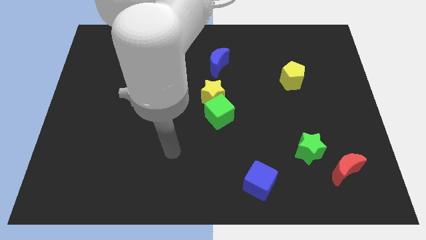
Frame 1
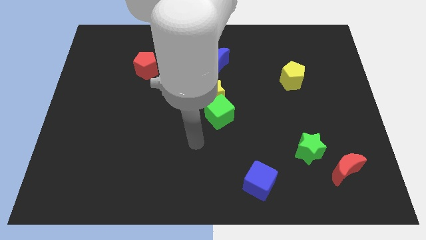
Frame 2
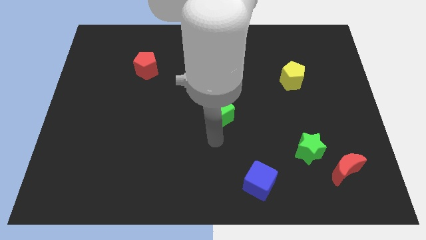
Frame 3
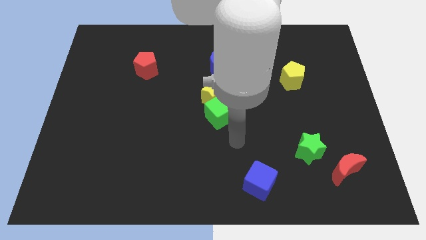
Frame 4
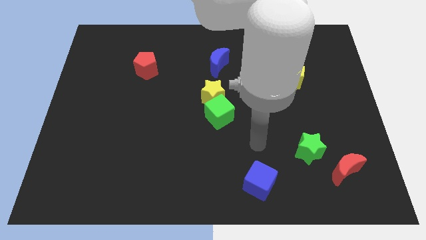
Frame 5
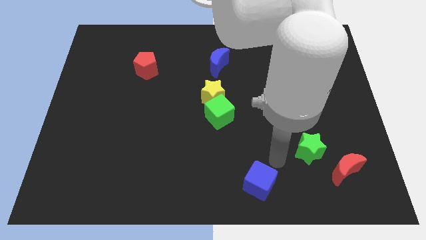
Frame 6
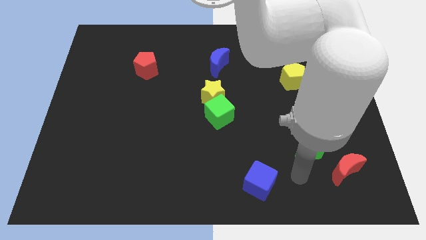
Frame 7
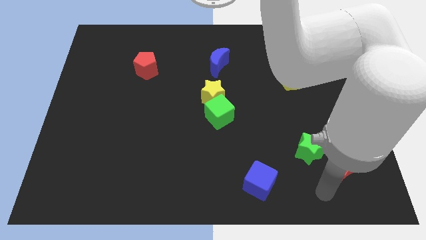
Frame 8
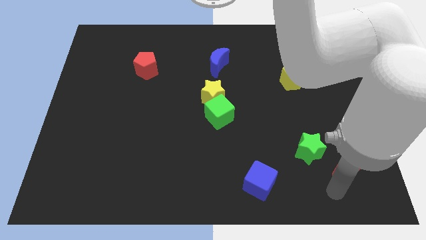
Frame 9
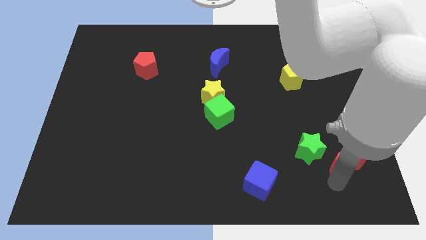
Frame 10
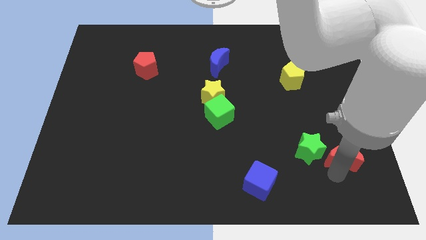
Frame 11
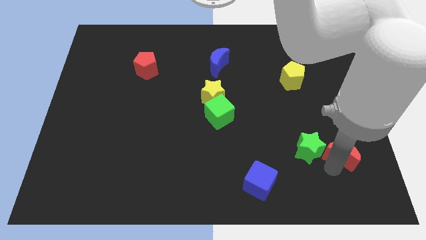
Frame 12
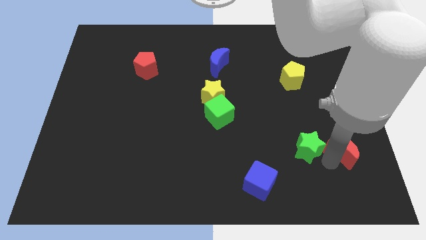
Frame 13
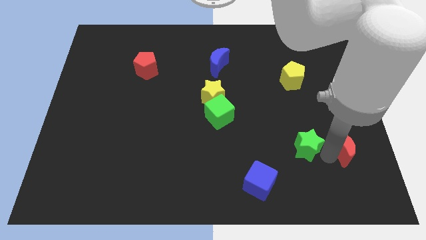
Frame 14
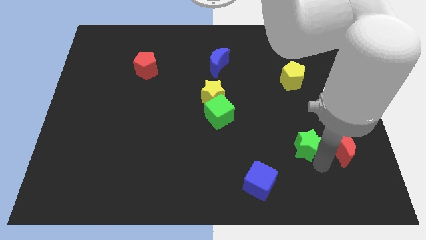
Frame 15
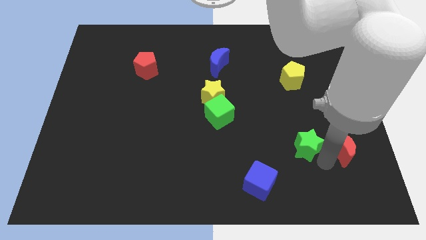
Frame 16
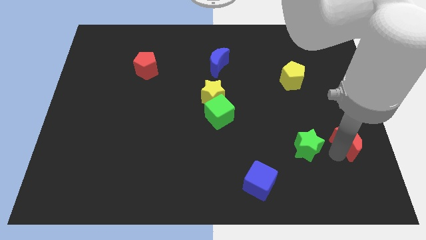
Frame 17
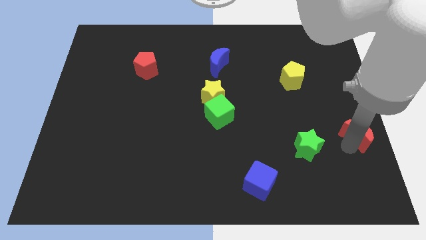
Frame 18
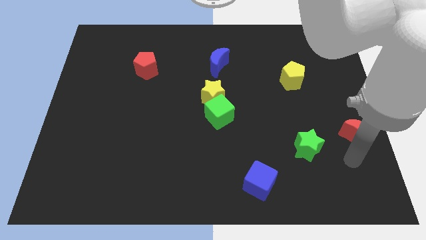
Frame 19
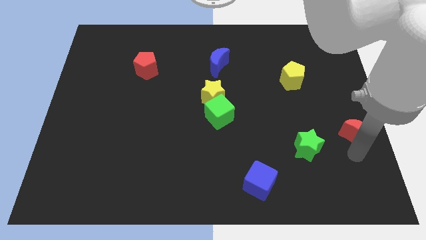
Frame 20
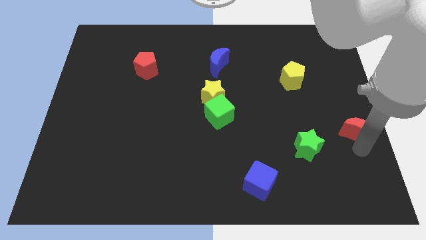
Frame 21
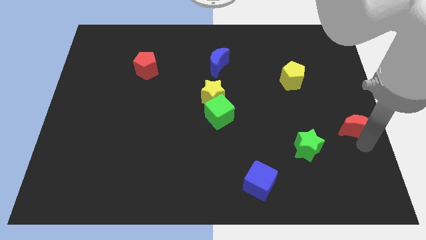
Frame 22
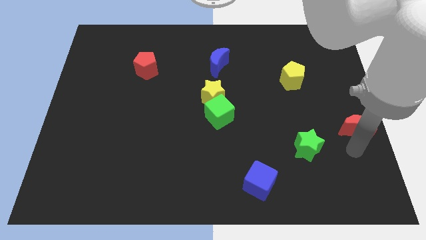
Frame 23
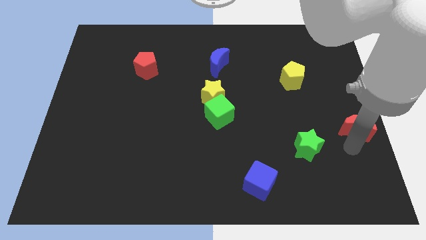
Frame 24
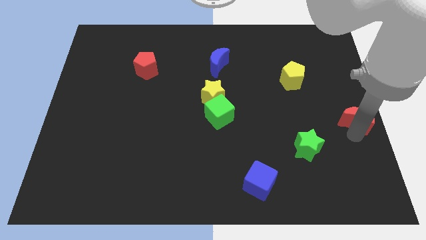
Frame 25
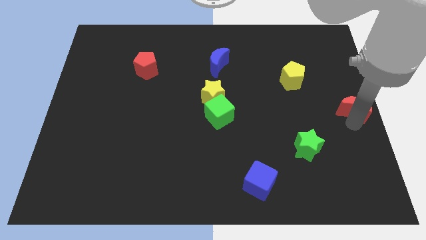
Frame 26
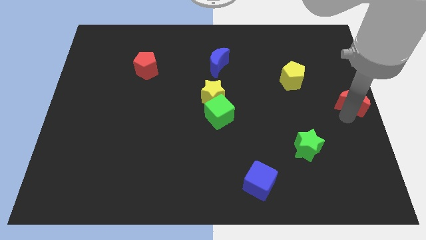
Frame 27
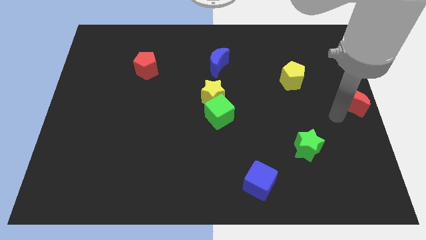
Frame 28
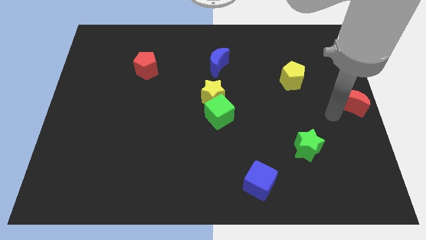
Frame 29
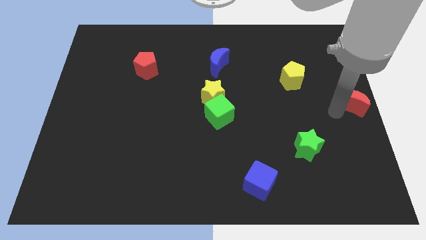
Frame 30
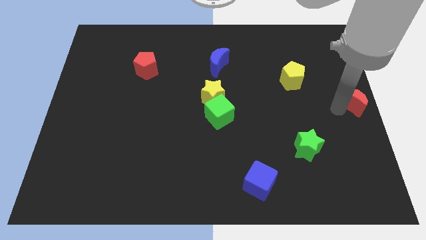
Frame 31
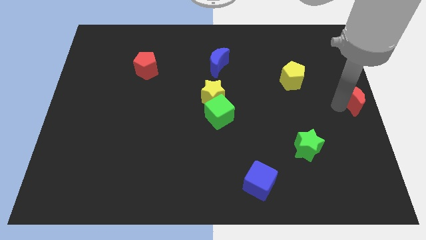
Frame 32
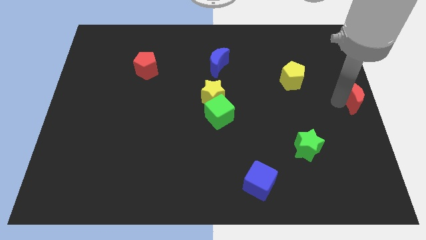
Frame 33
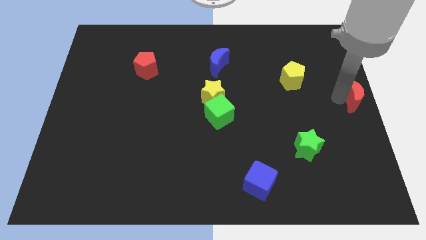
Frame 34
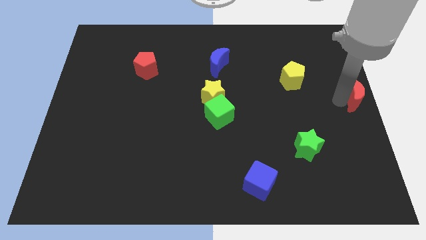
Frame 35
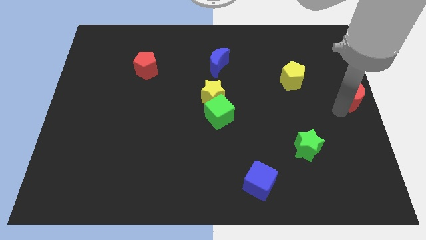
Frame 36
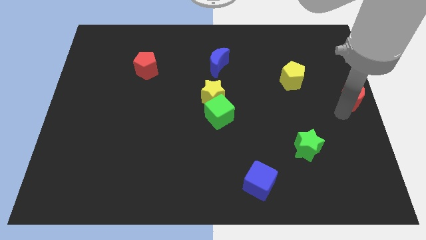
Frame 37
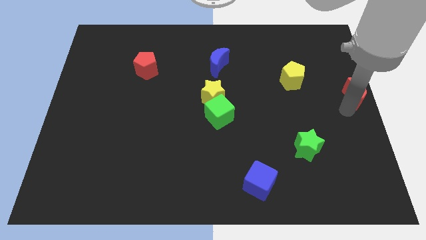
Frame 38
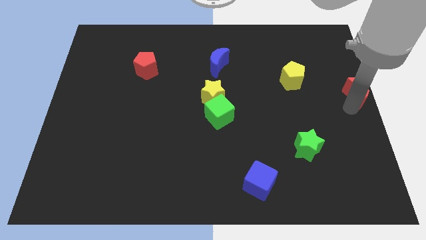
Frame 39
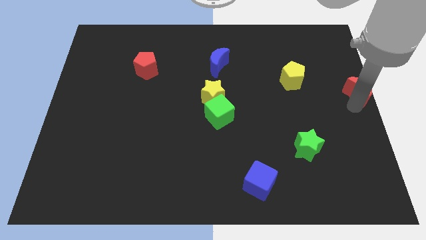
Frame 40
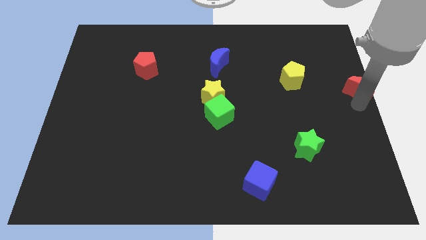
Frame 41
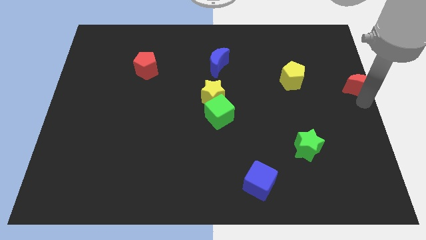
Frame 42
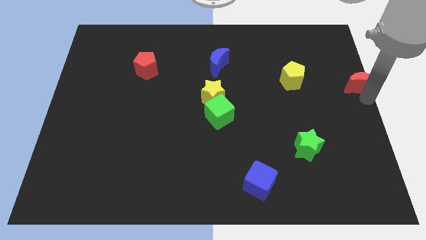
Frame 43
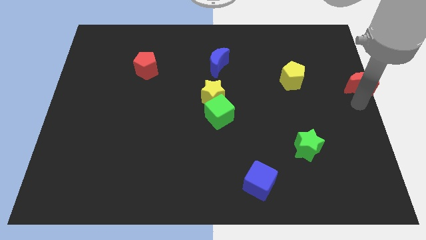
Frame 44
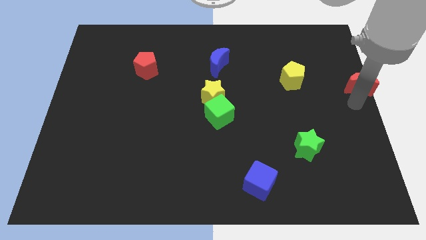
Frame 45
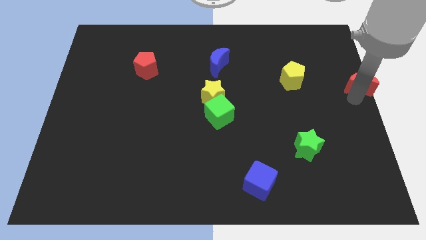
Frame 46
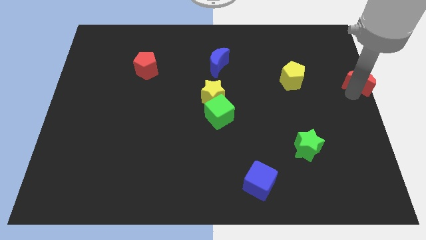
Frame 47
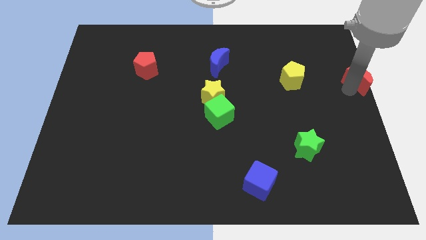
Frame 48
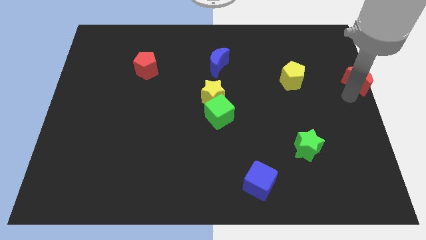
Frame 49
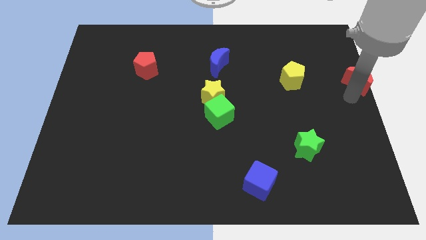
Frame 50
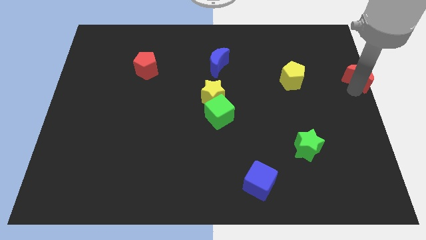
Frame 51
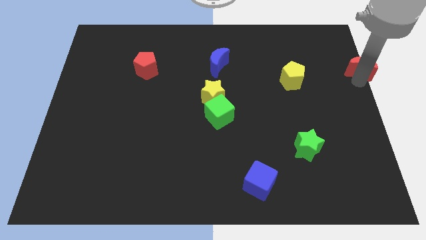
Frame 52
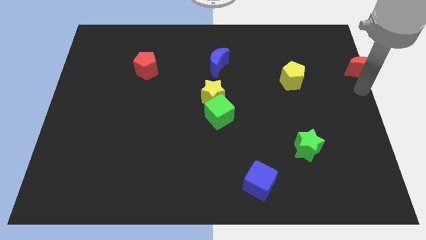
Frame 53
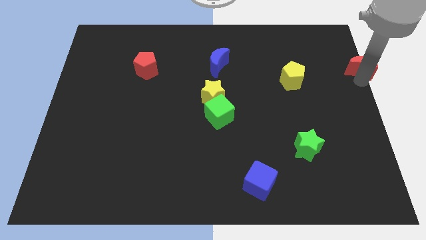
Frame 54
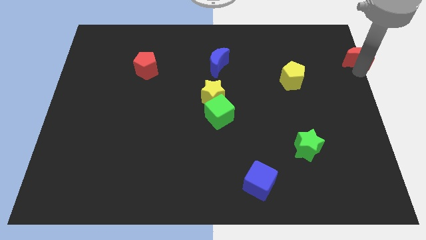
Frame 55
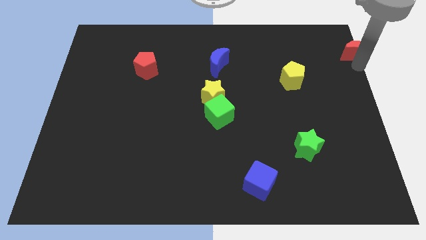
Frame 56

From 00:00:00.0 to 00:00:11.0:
push the red moon to the top right of the board
